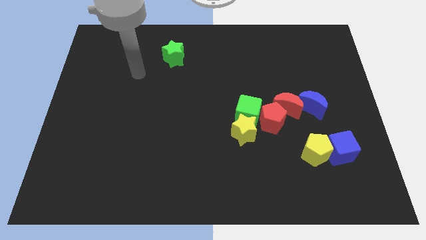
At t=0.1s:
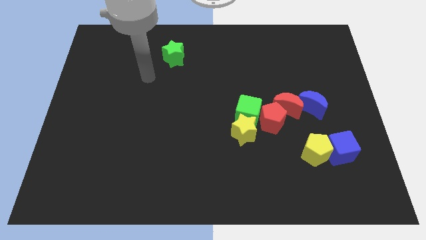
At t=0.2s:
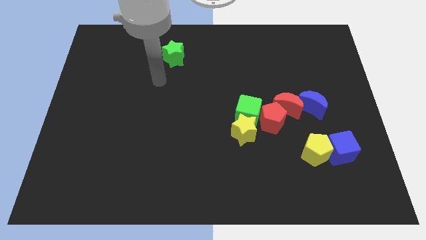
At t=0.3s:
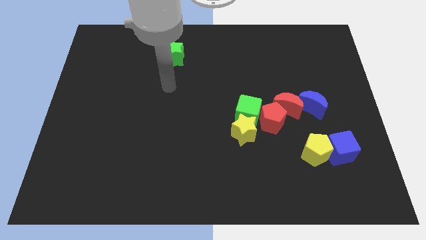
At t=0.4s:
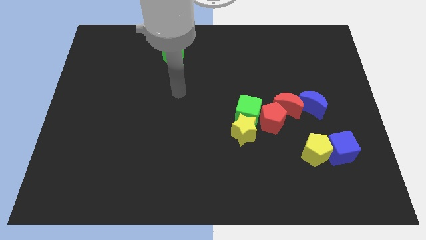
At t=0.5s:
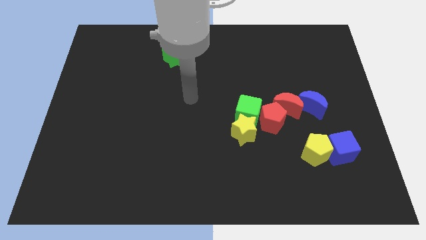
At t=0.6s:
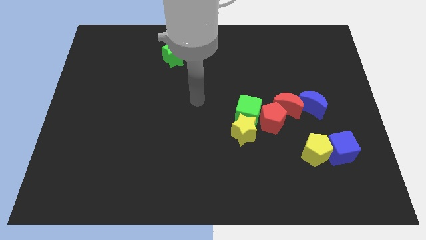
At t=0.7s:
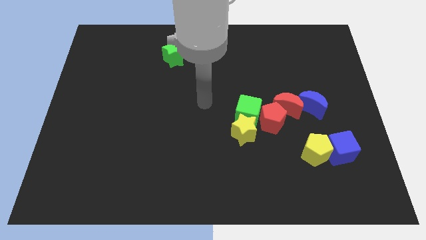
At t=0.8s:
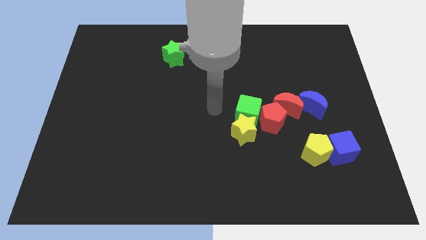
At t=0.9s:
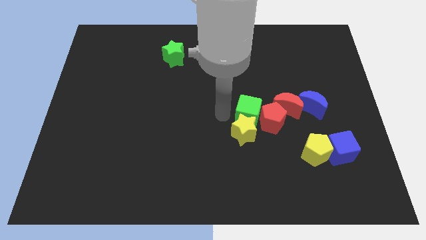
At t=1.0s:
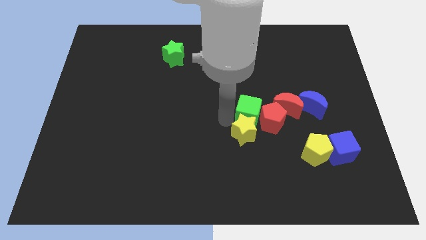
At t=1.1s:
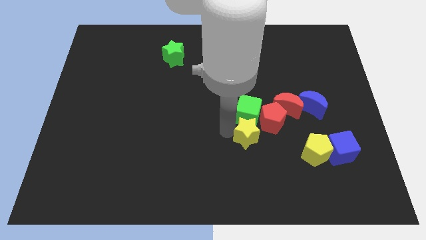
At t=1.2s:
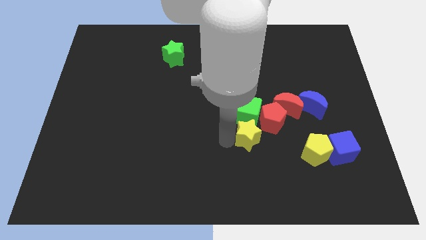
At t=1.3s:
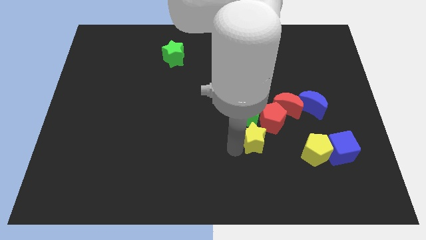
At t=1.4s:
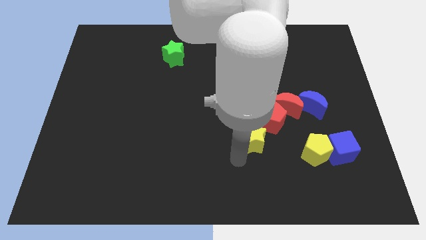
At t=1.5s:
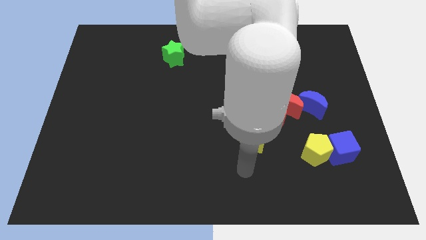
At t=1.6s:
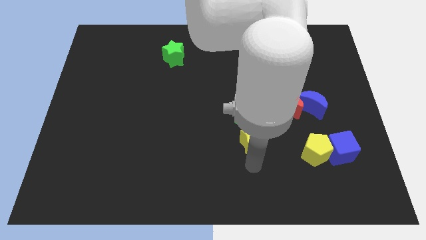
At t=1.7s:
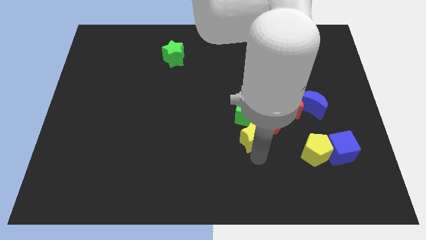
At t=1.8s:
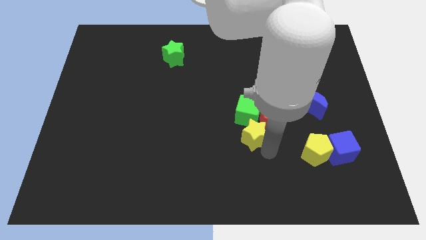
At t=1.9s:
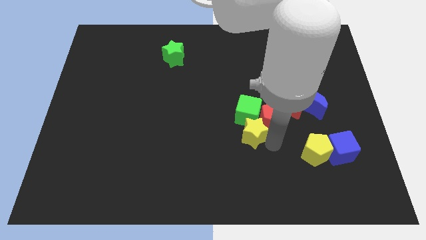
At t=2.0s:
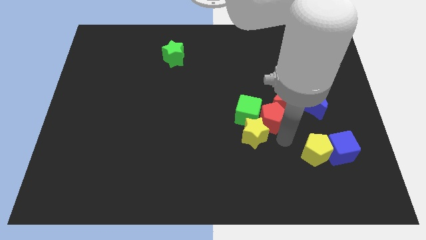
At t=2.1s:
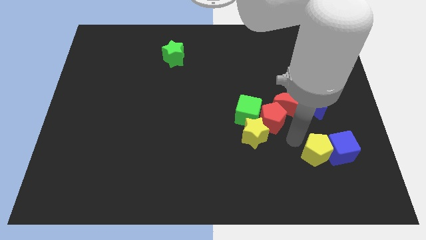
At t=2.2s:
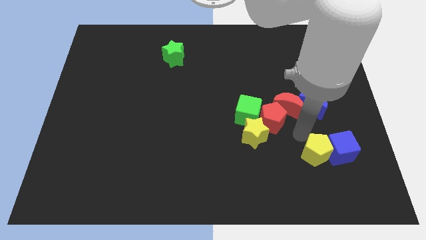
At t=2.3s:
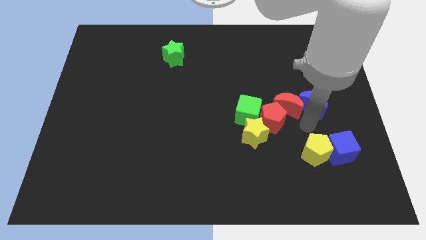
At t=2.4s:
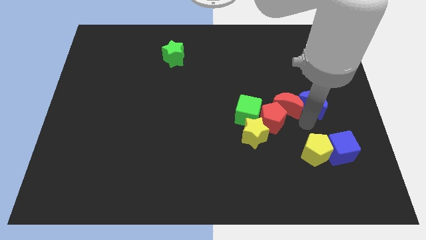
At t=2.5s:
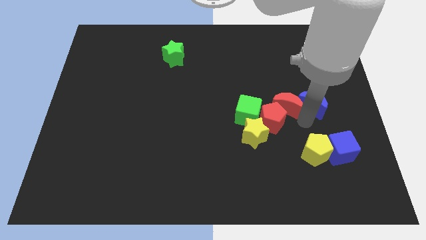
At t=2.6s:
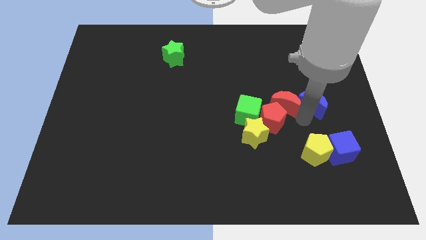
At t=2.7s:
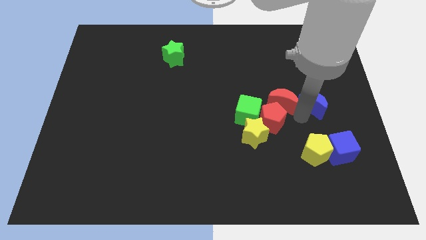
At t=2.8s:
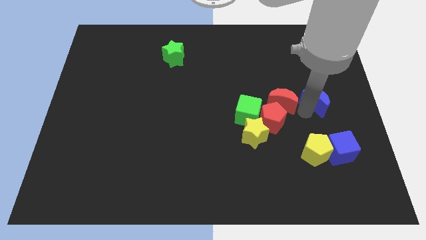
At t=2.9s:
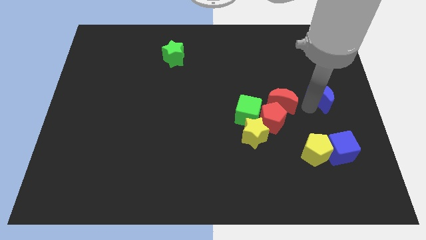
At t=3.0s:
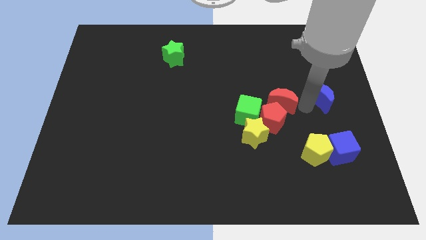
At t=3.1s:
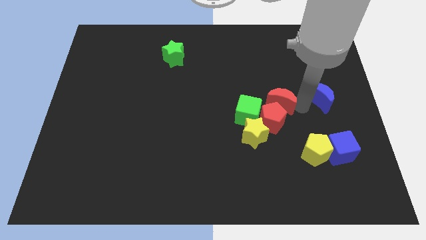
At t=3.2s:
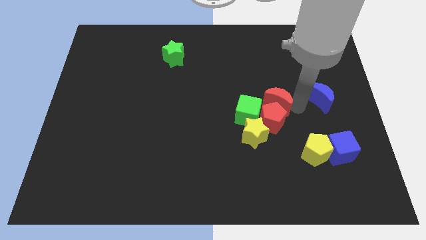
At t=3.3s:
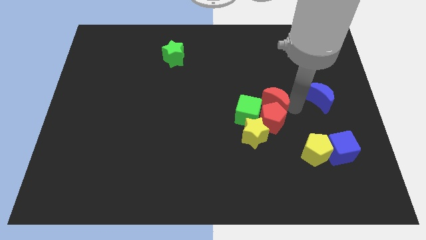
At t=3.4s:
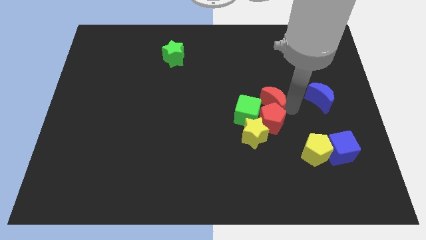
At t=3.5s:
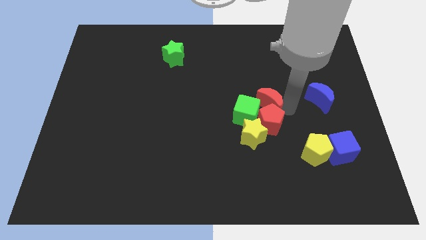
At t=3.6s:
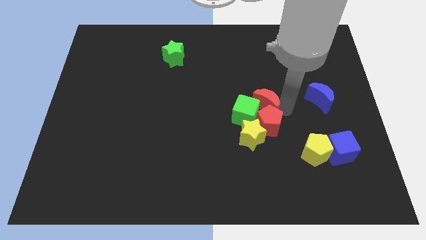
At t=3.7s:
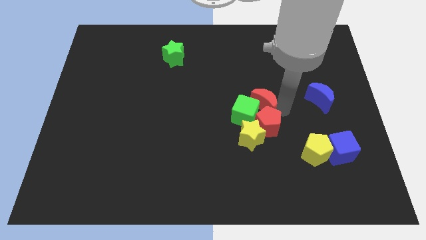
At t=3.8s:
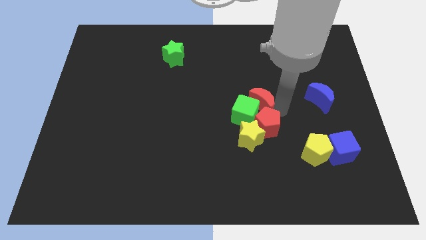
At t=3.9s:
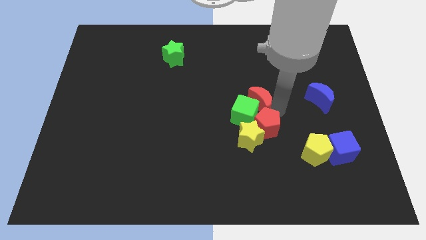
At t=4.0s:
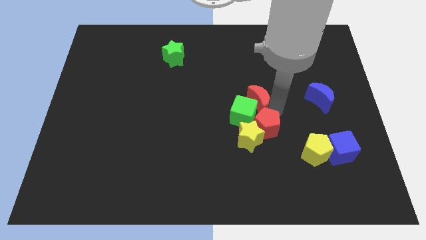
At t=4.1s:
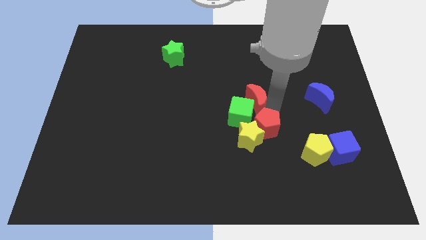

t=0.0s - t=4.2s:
slide the red moon to the left a little bit

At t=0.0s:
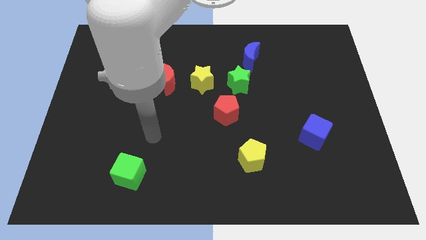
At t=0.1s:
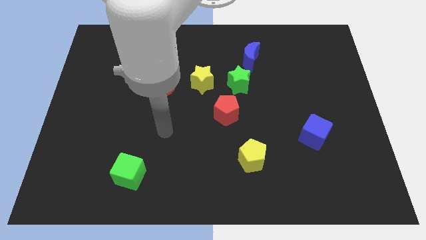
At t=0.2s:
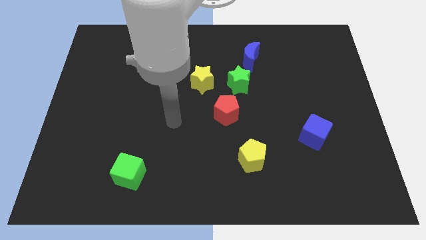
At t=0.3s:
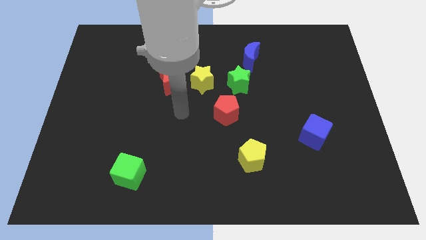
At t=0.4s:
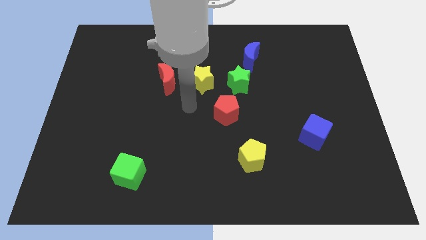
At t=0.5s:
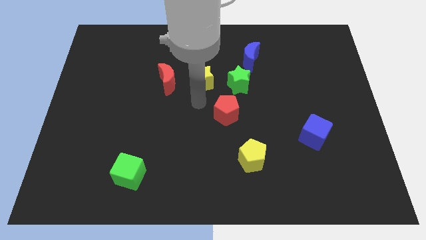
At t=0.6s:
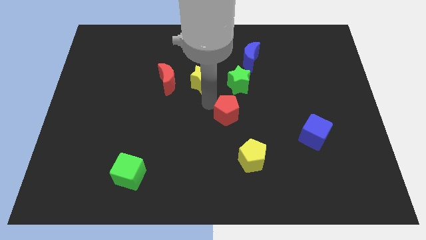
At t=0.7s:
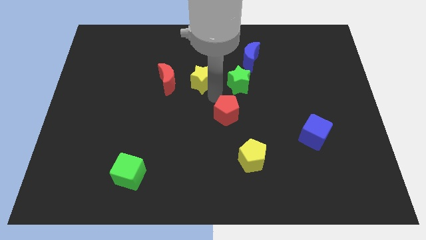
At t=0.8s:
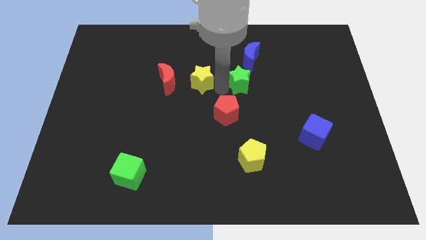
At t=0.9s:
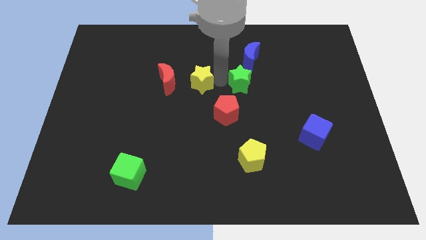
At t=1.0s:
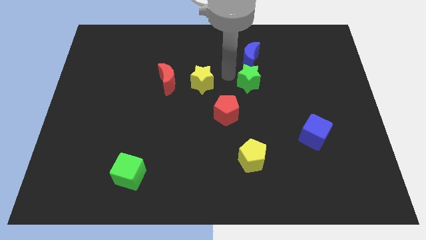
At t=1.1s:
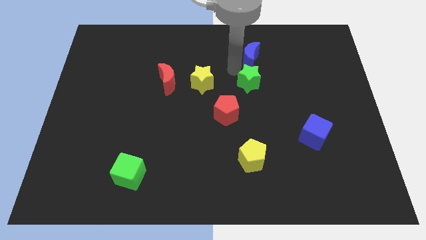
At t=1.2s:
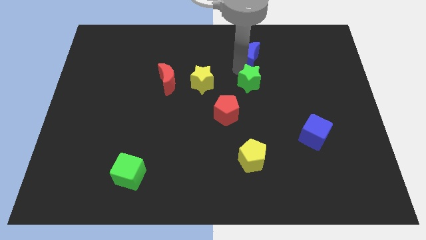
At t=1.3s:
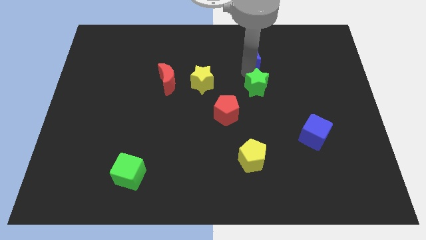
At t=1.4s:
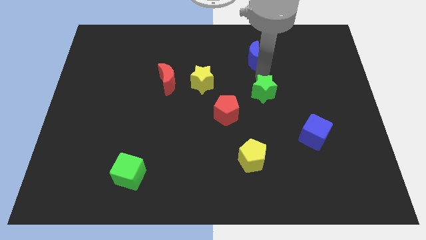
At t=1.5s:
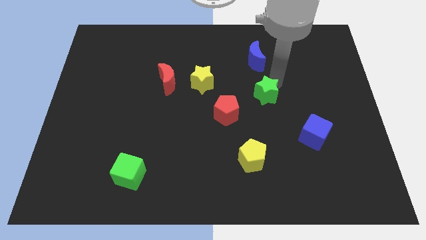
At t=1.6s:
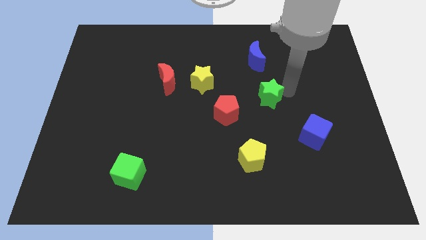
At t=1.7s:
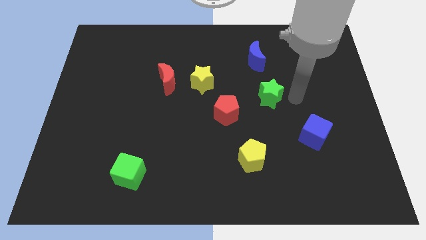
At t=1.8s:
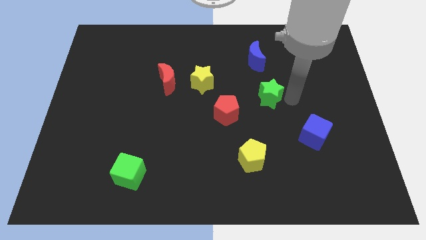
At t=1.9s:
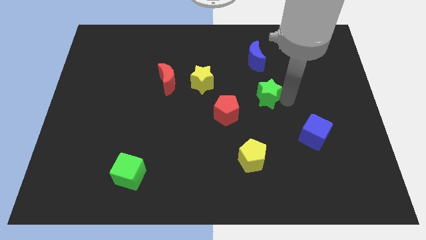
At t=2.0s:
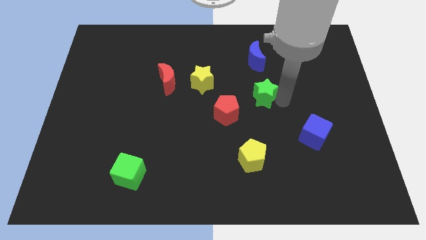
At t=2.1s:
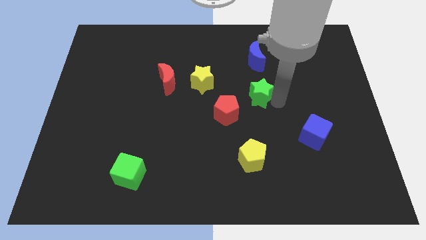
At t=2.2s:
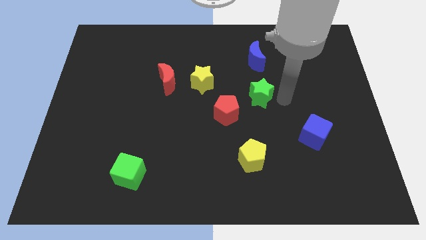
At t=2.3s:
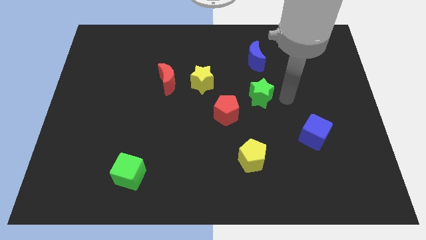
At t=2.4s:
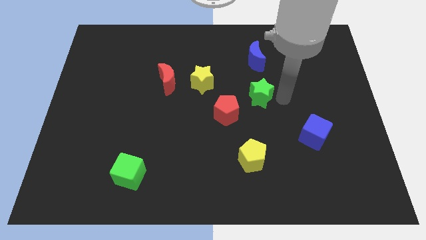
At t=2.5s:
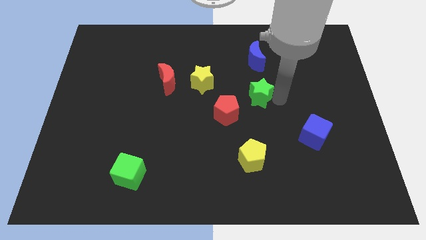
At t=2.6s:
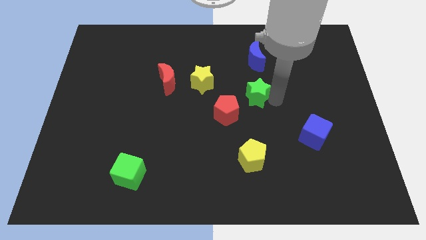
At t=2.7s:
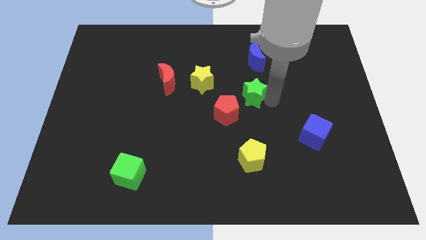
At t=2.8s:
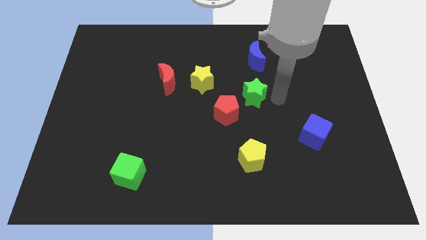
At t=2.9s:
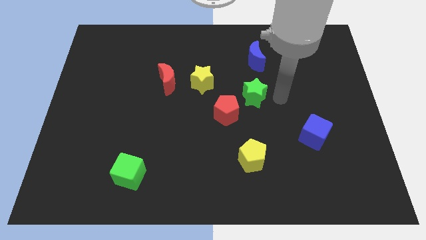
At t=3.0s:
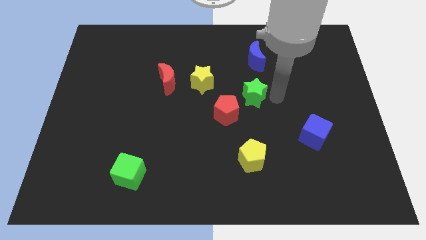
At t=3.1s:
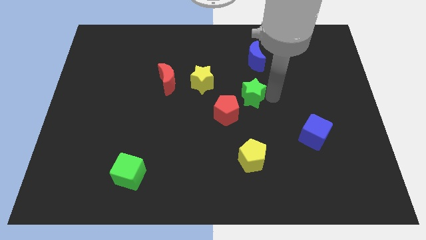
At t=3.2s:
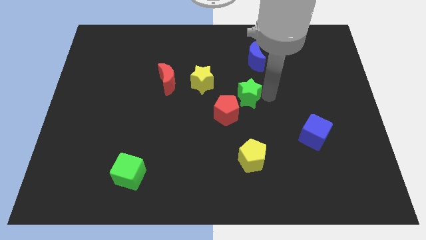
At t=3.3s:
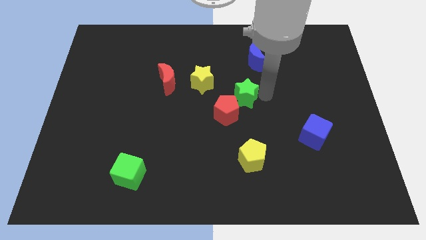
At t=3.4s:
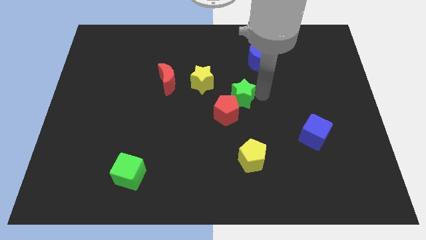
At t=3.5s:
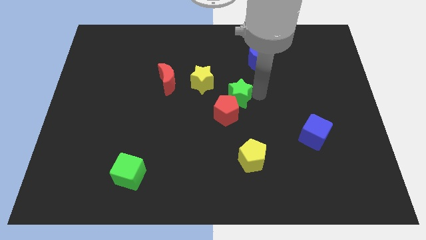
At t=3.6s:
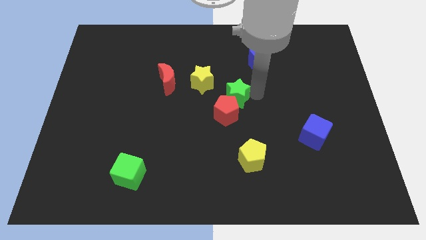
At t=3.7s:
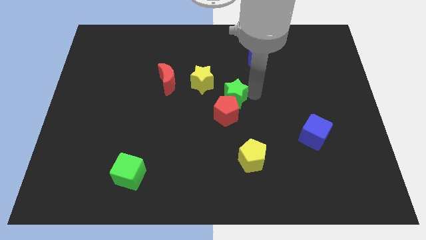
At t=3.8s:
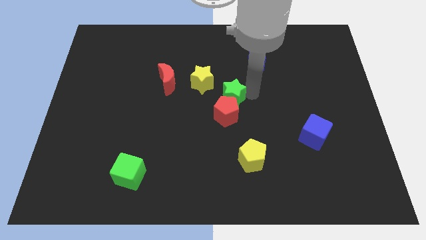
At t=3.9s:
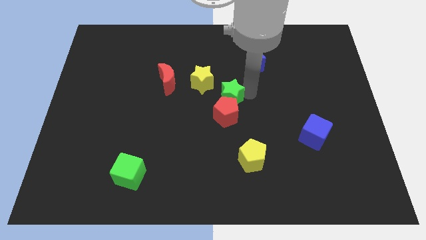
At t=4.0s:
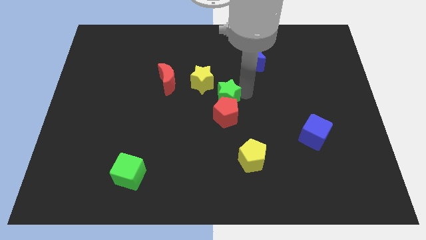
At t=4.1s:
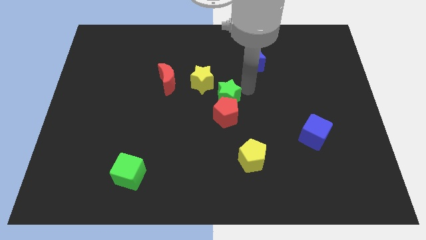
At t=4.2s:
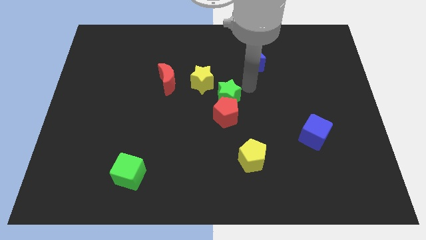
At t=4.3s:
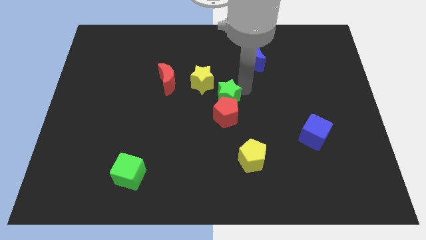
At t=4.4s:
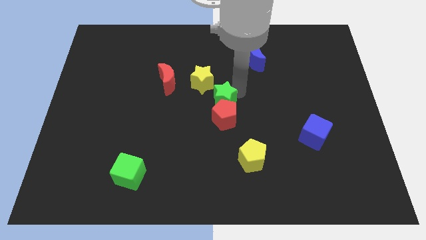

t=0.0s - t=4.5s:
slide the green star a bit down and then left
